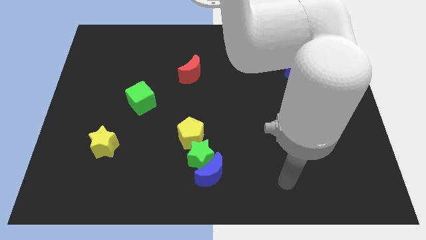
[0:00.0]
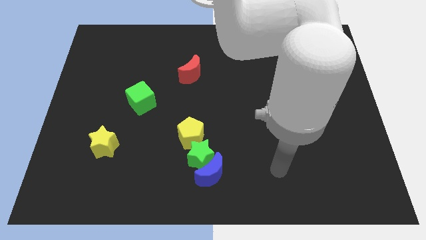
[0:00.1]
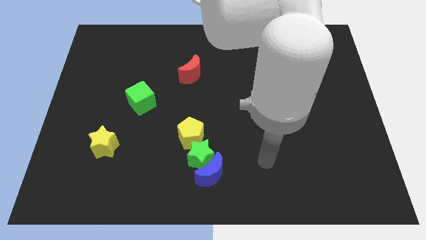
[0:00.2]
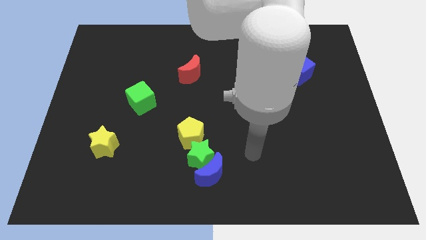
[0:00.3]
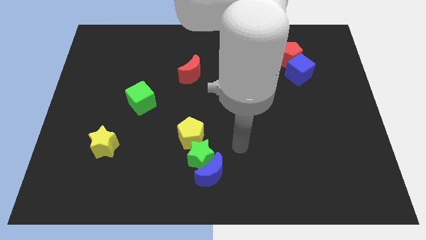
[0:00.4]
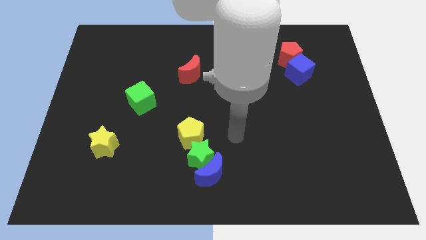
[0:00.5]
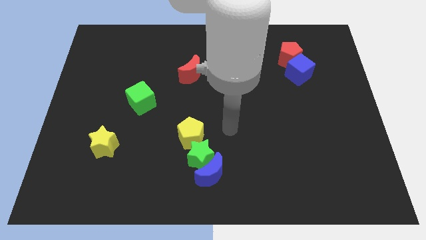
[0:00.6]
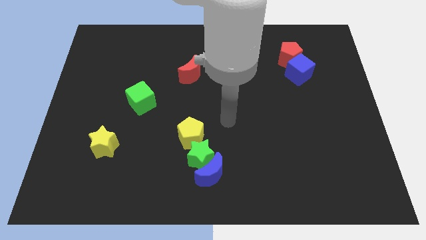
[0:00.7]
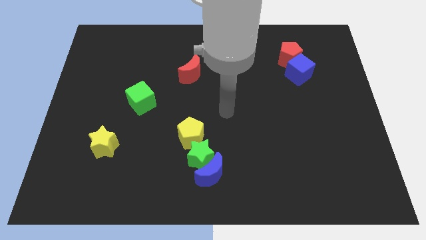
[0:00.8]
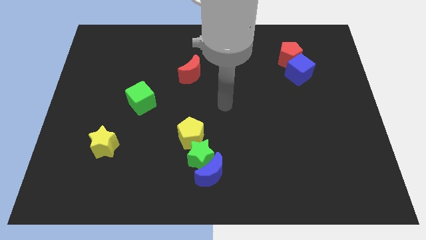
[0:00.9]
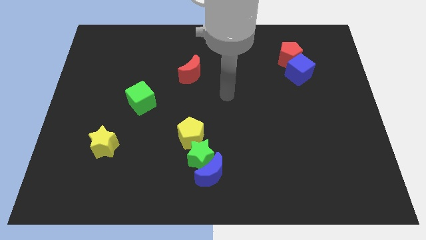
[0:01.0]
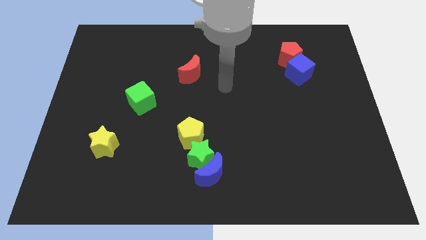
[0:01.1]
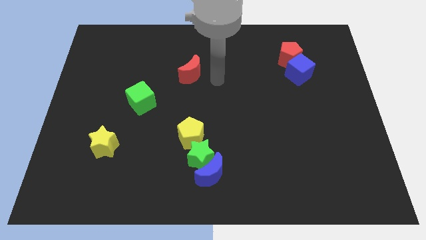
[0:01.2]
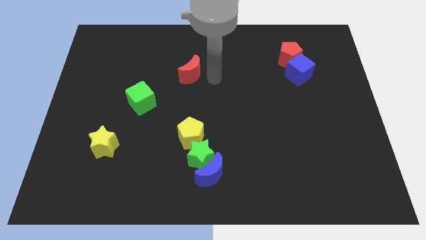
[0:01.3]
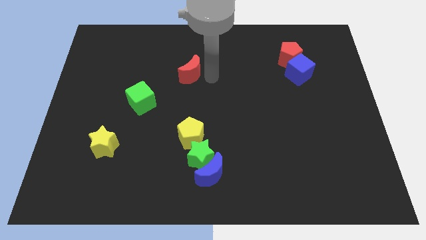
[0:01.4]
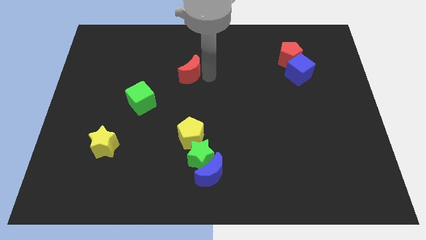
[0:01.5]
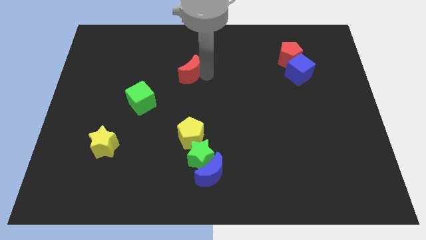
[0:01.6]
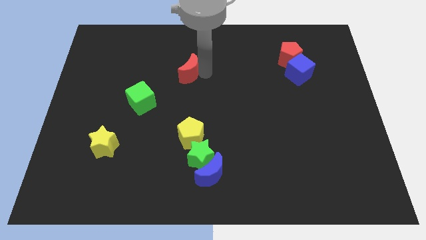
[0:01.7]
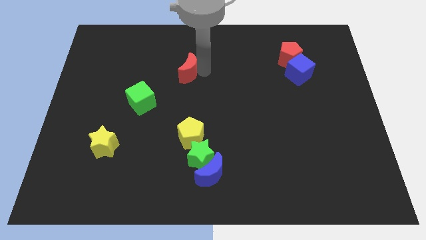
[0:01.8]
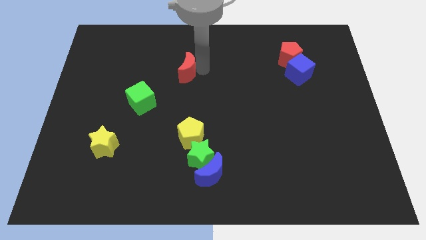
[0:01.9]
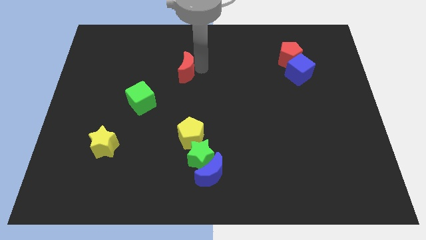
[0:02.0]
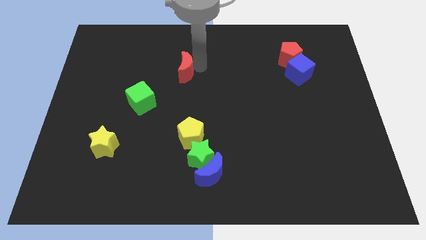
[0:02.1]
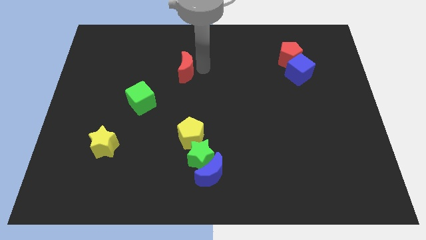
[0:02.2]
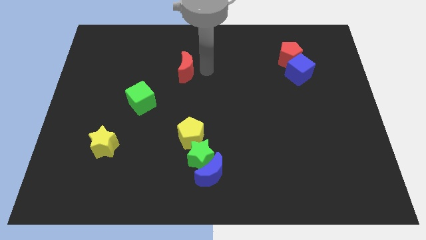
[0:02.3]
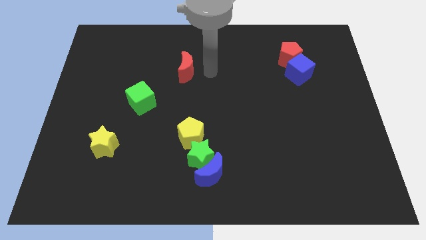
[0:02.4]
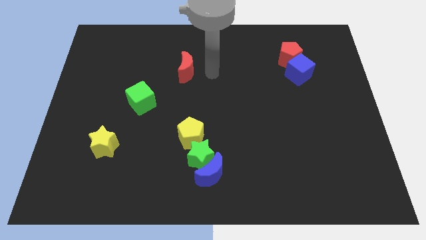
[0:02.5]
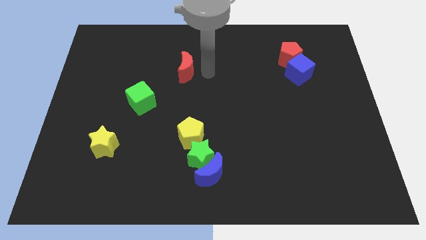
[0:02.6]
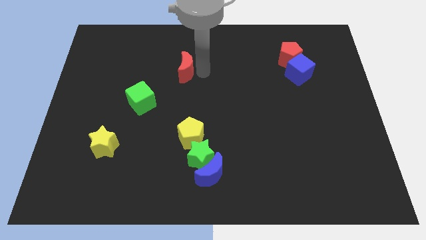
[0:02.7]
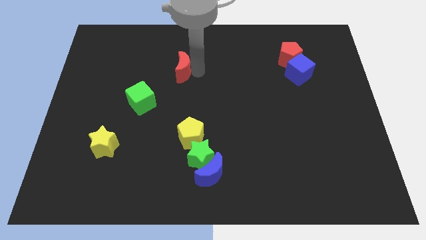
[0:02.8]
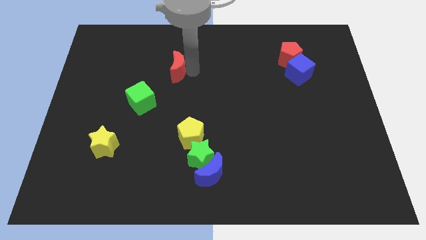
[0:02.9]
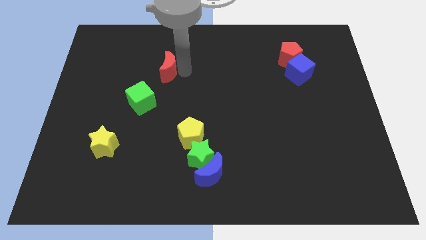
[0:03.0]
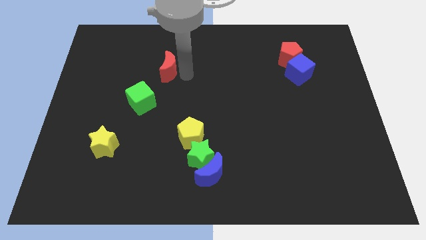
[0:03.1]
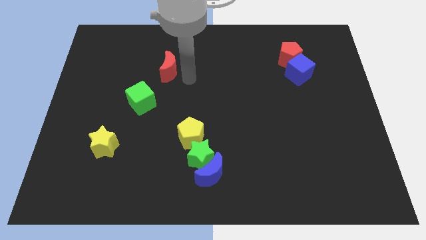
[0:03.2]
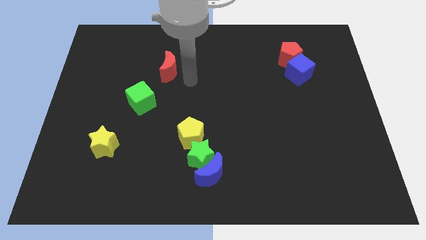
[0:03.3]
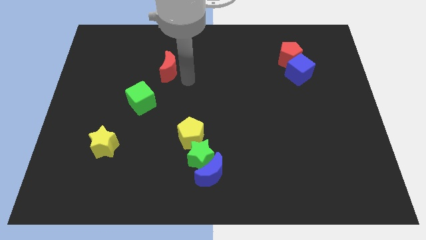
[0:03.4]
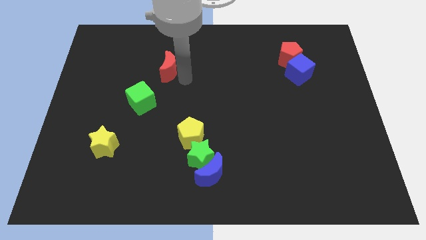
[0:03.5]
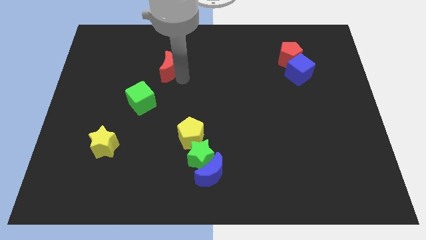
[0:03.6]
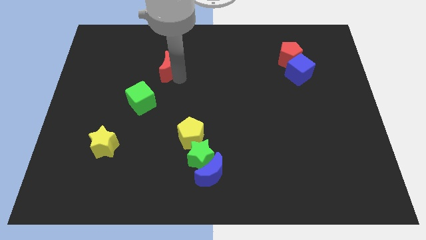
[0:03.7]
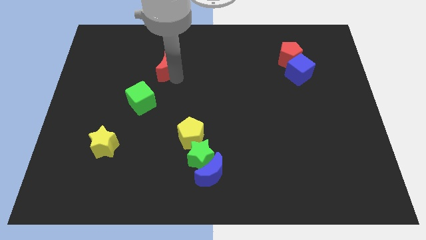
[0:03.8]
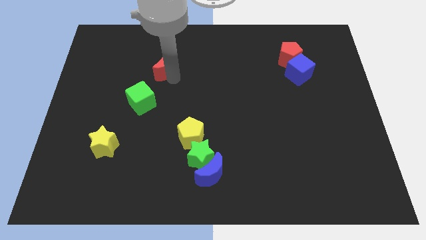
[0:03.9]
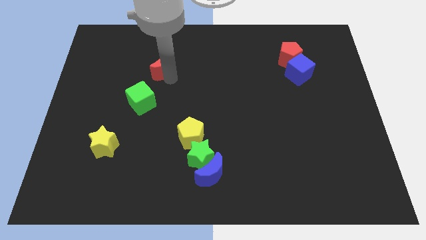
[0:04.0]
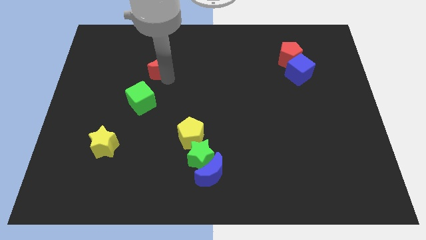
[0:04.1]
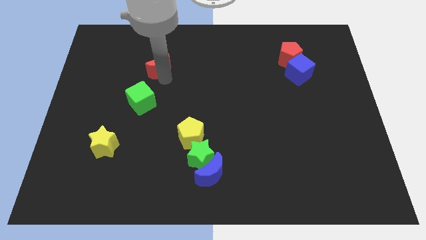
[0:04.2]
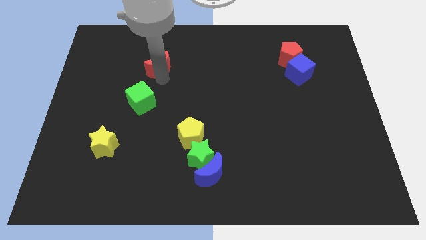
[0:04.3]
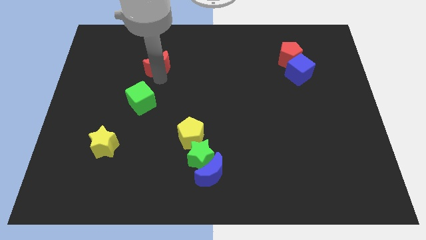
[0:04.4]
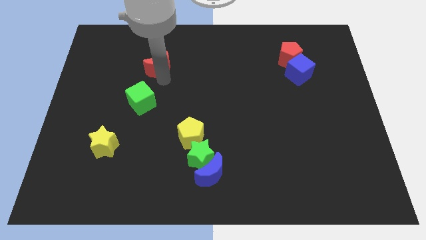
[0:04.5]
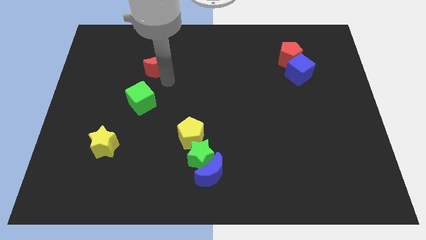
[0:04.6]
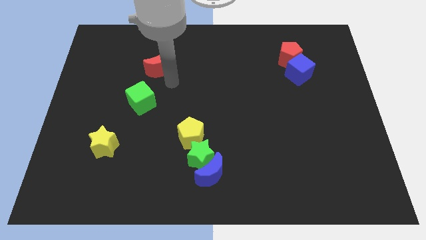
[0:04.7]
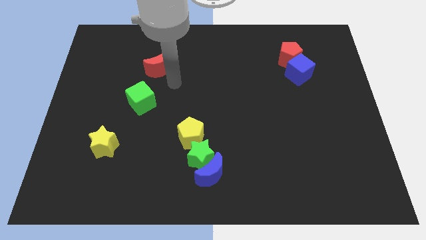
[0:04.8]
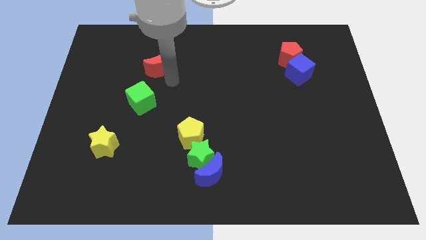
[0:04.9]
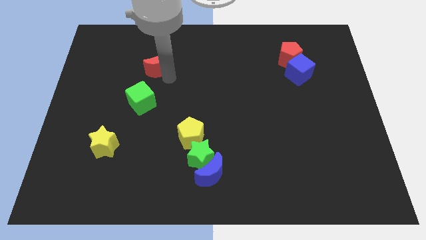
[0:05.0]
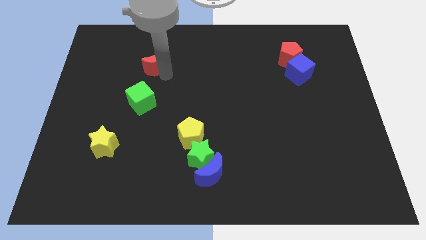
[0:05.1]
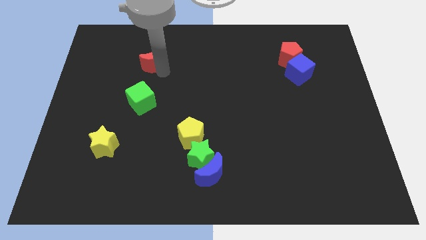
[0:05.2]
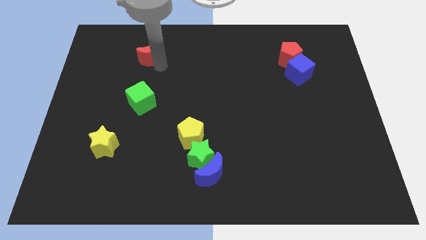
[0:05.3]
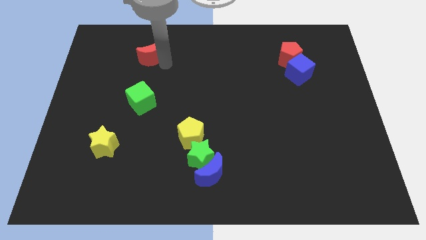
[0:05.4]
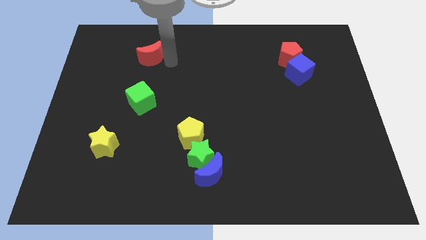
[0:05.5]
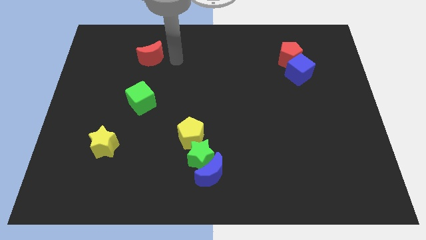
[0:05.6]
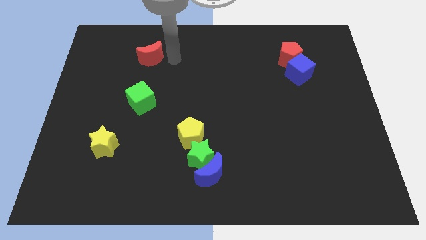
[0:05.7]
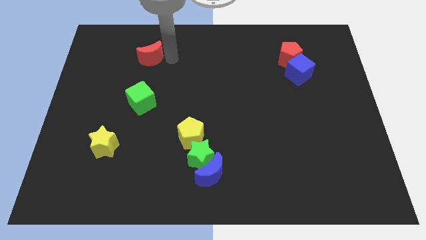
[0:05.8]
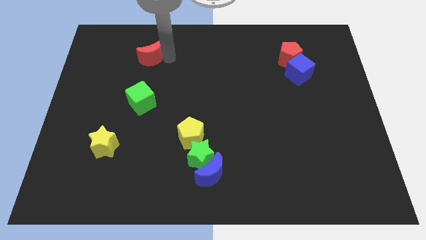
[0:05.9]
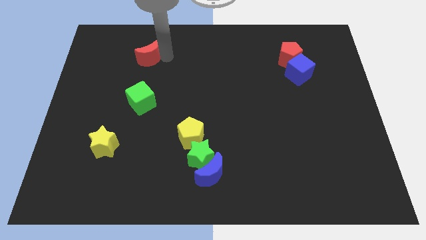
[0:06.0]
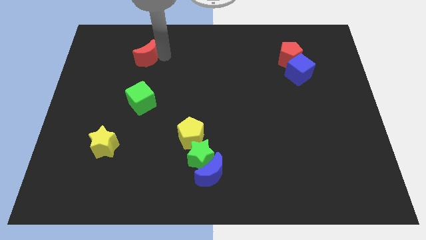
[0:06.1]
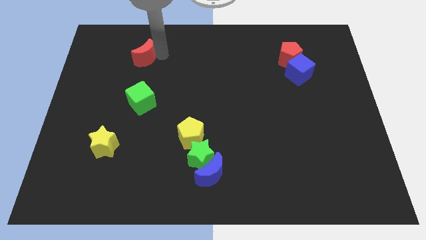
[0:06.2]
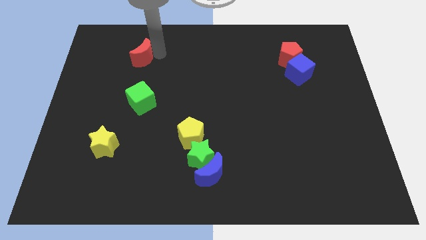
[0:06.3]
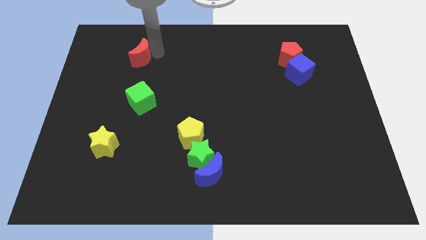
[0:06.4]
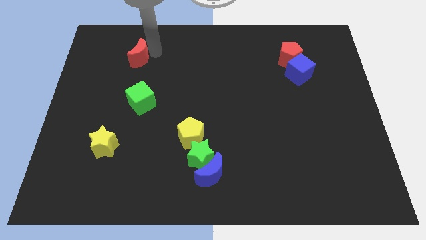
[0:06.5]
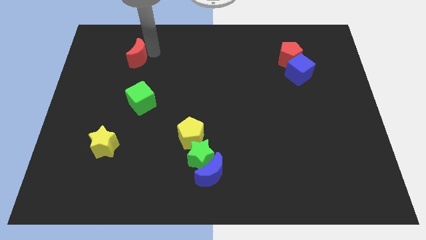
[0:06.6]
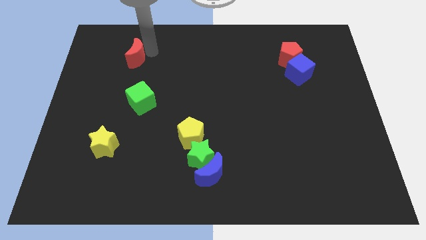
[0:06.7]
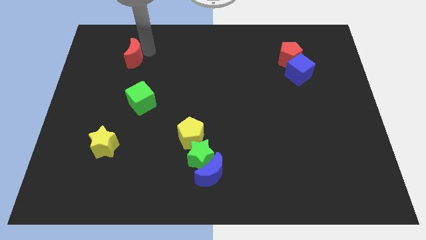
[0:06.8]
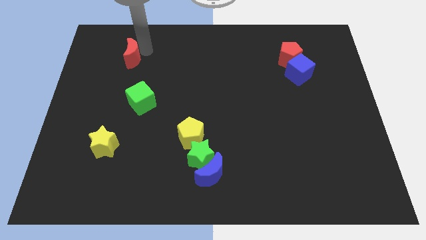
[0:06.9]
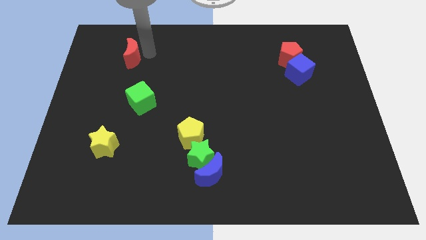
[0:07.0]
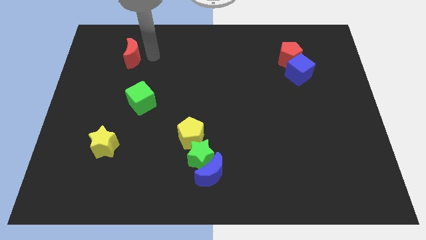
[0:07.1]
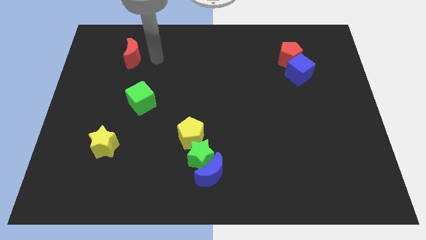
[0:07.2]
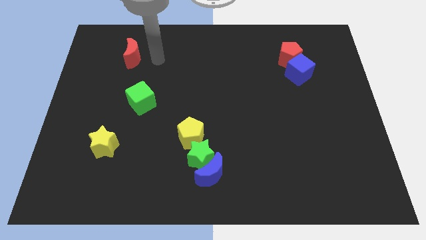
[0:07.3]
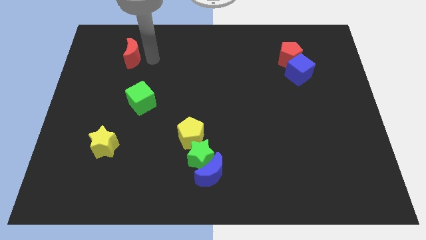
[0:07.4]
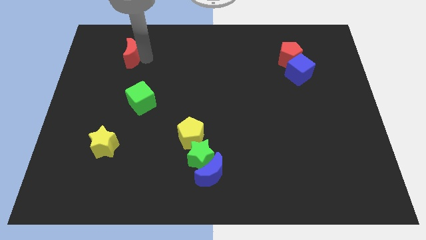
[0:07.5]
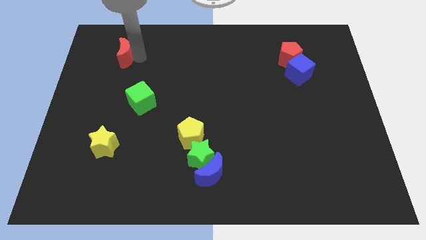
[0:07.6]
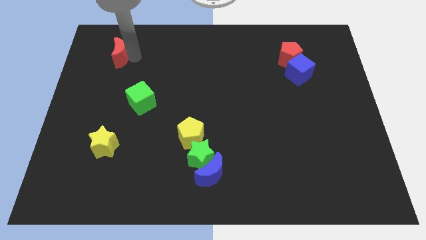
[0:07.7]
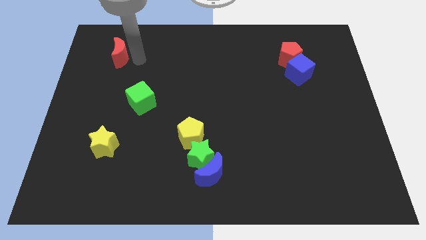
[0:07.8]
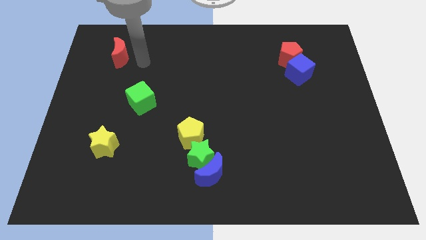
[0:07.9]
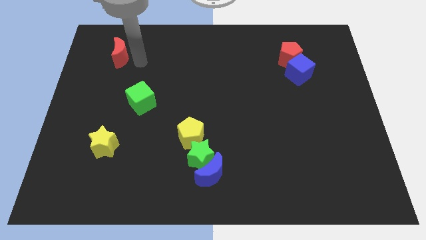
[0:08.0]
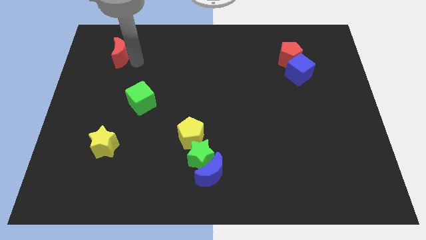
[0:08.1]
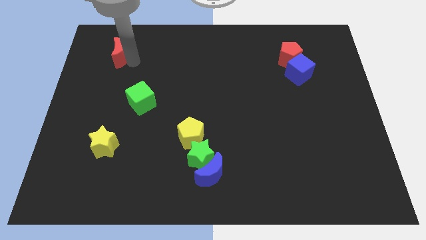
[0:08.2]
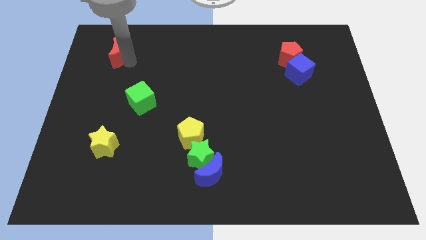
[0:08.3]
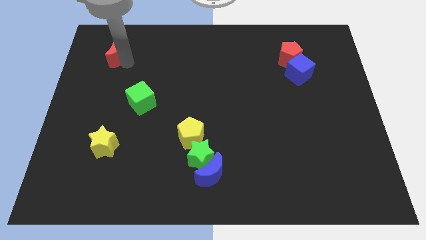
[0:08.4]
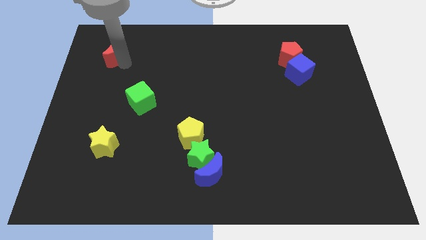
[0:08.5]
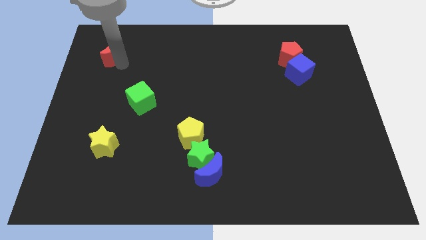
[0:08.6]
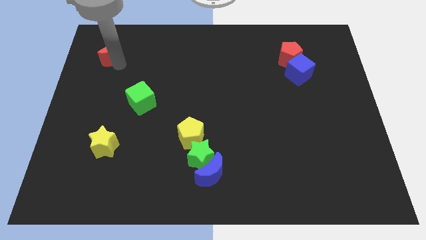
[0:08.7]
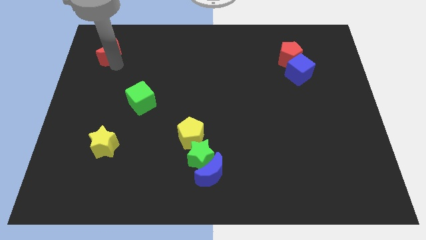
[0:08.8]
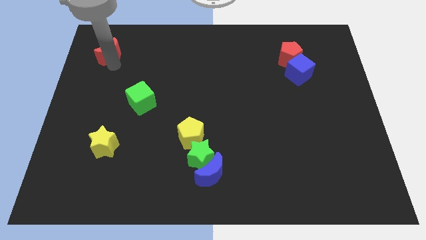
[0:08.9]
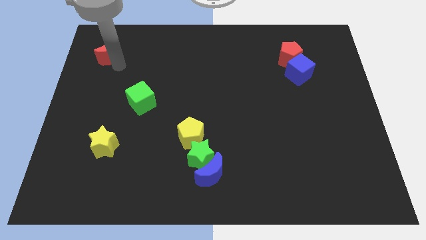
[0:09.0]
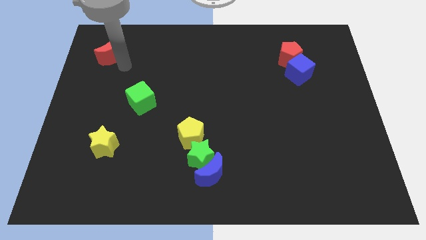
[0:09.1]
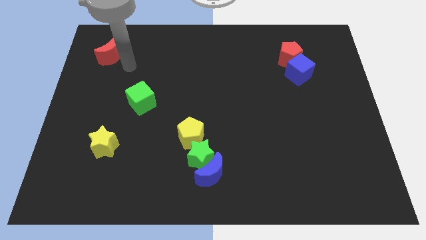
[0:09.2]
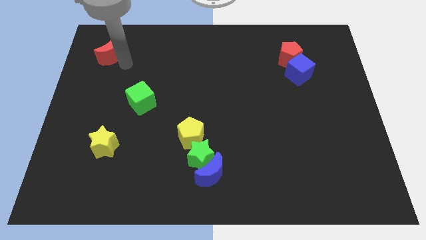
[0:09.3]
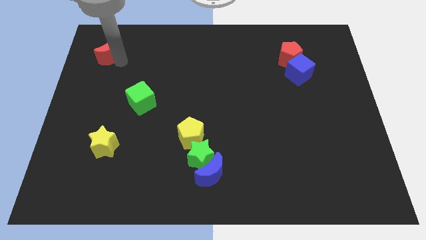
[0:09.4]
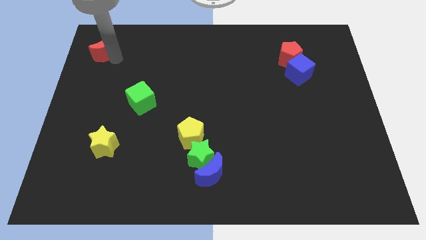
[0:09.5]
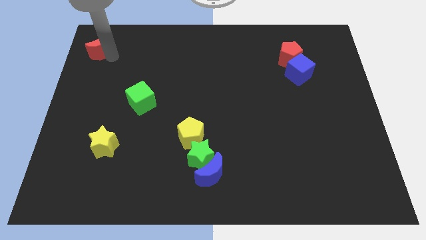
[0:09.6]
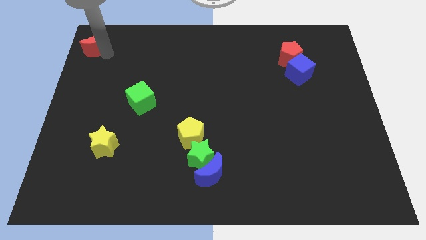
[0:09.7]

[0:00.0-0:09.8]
move the red moon to the upper left corner
